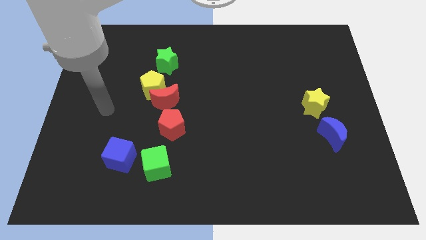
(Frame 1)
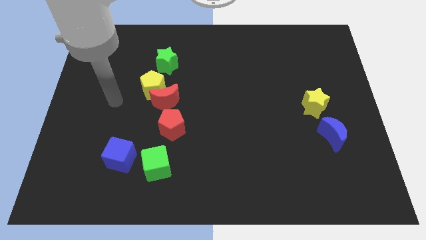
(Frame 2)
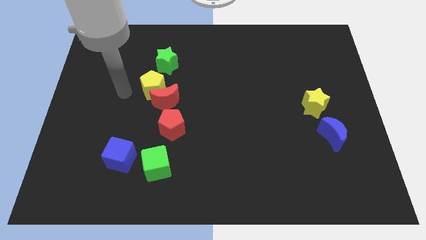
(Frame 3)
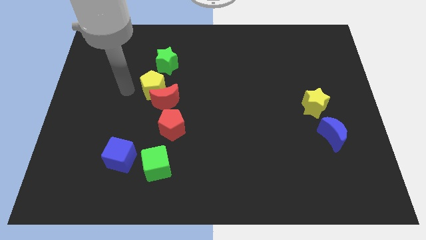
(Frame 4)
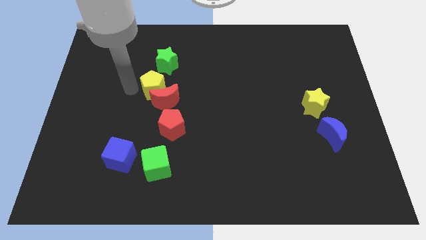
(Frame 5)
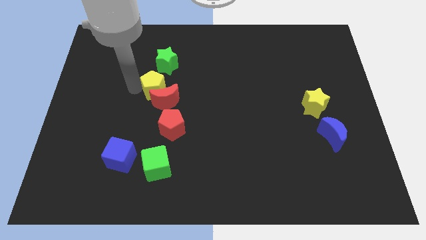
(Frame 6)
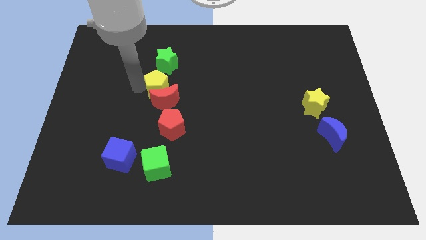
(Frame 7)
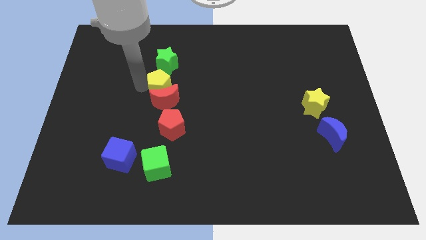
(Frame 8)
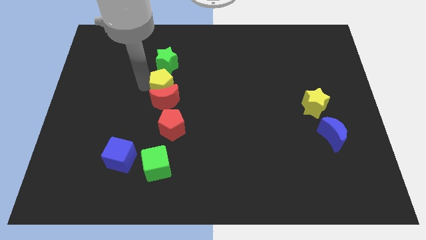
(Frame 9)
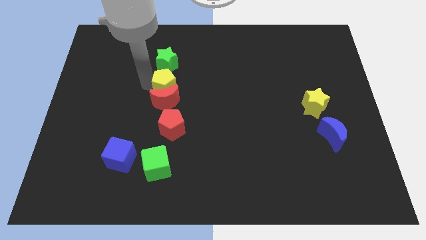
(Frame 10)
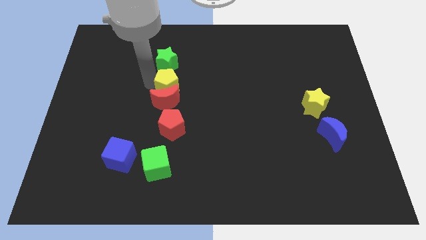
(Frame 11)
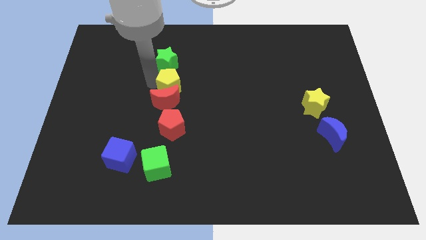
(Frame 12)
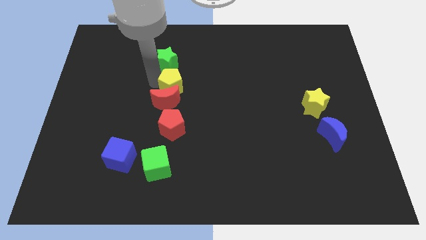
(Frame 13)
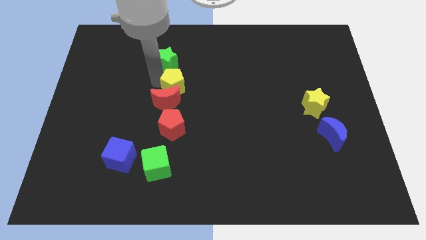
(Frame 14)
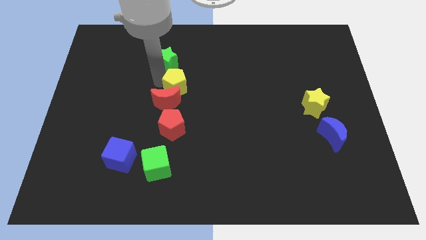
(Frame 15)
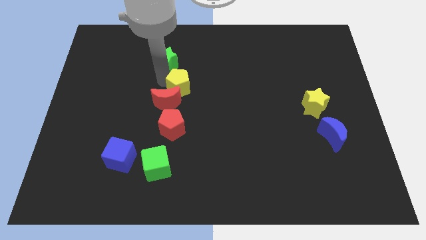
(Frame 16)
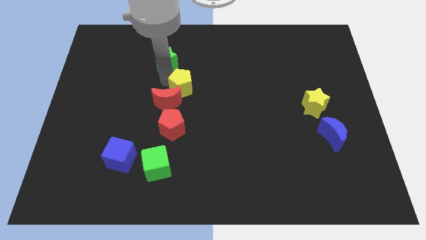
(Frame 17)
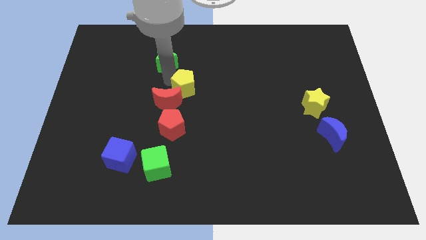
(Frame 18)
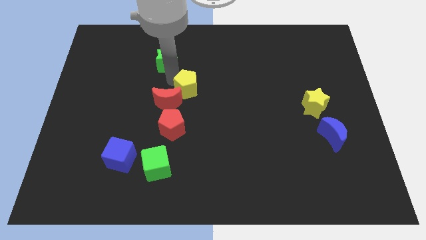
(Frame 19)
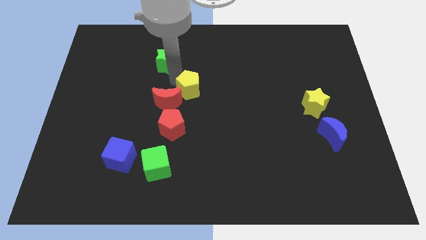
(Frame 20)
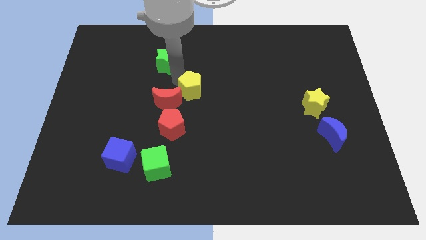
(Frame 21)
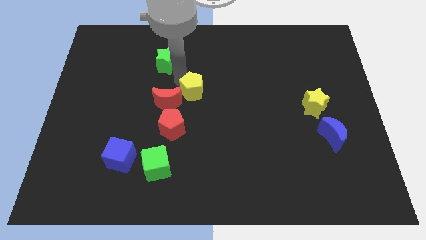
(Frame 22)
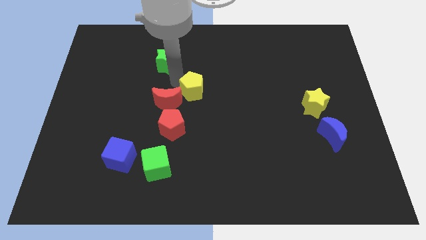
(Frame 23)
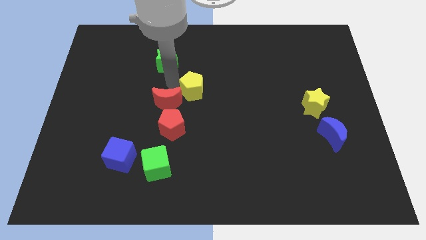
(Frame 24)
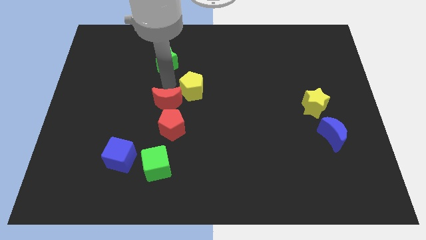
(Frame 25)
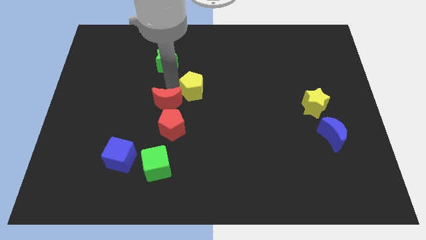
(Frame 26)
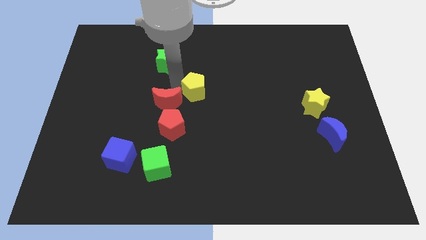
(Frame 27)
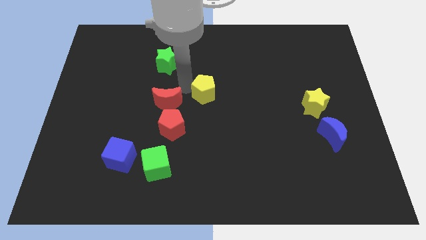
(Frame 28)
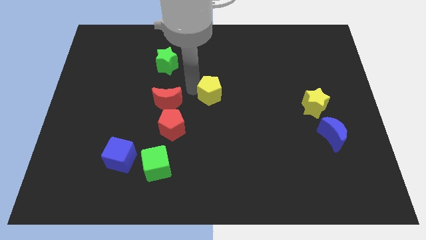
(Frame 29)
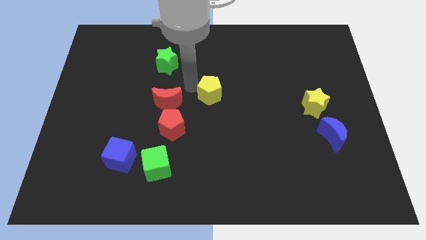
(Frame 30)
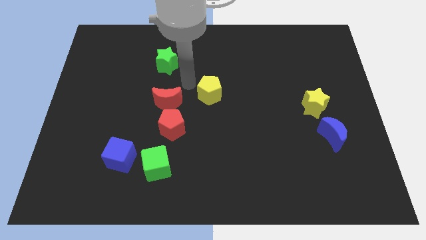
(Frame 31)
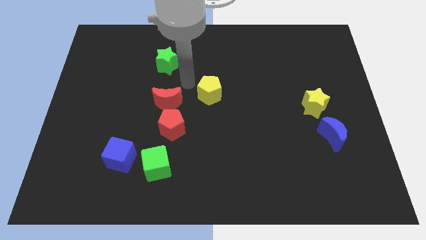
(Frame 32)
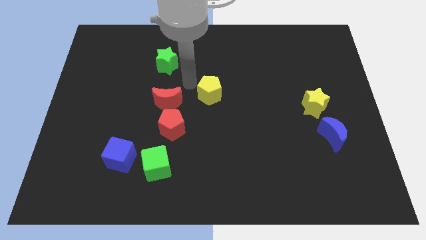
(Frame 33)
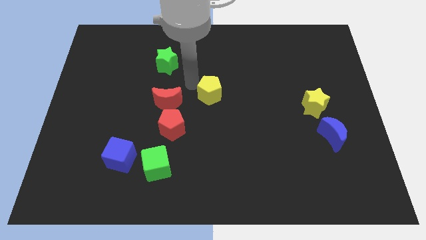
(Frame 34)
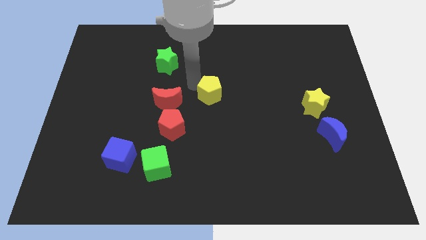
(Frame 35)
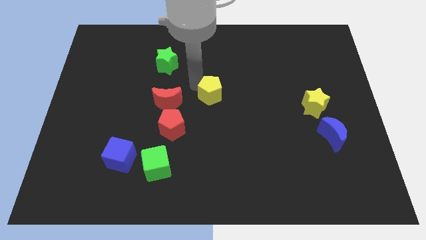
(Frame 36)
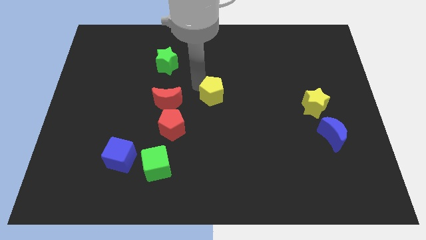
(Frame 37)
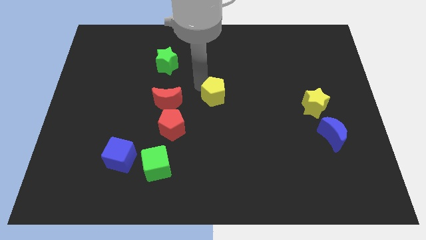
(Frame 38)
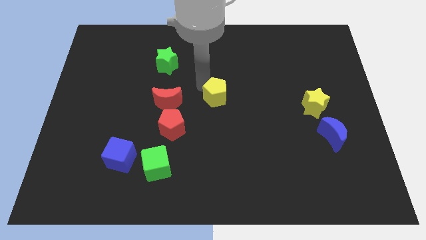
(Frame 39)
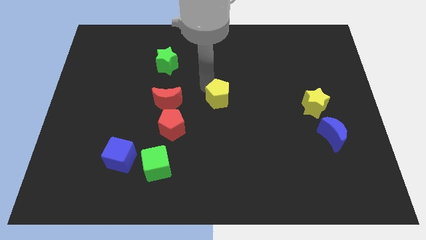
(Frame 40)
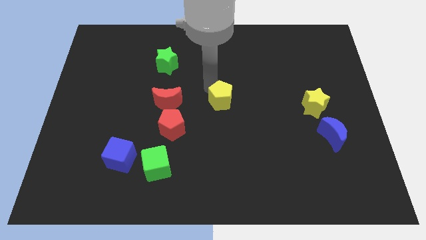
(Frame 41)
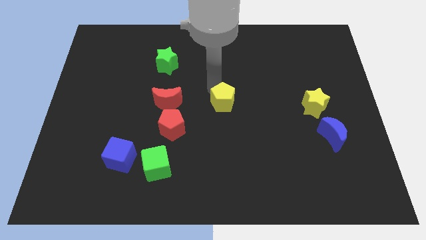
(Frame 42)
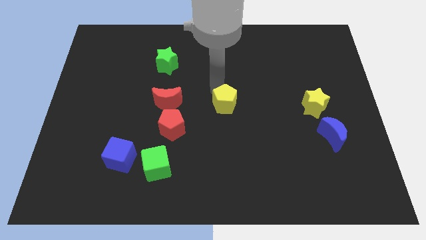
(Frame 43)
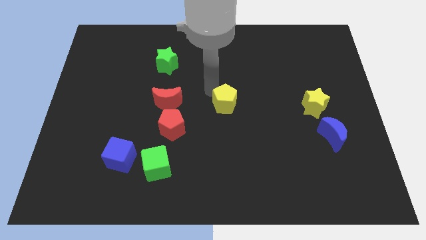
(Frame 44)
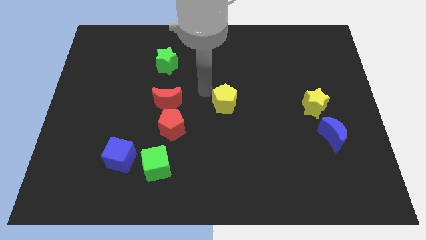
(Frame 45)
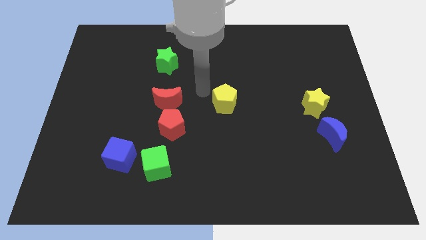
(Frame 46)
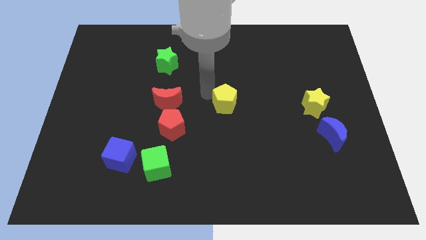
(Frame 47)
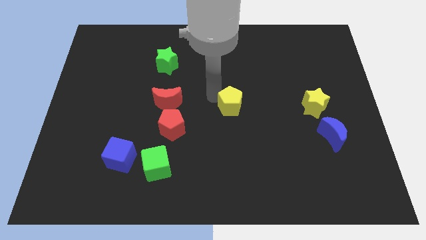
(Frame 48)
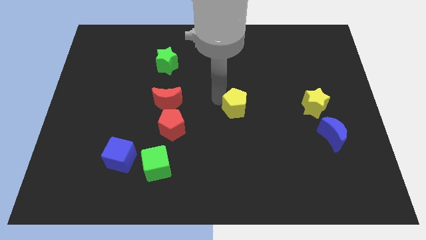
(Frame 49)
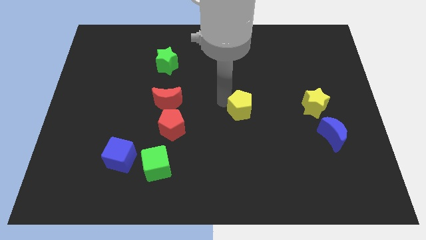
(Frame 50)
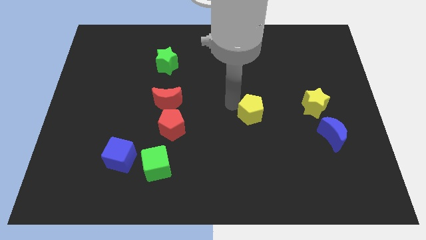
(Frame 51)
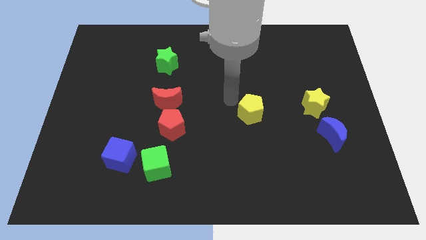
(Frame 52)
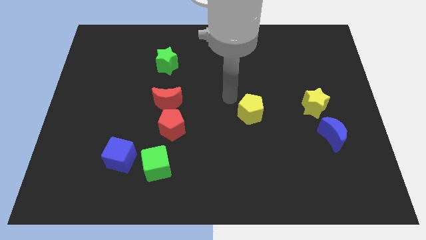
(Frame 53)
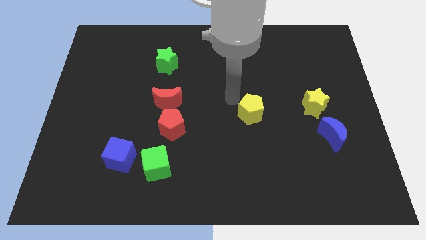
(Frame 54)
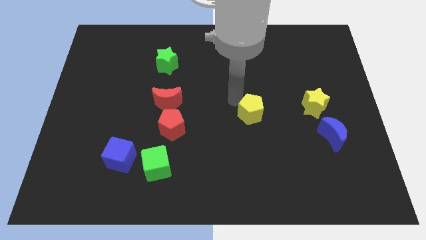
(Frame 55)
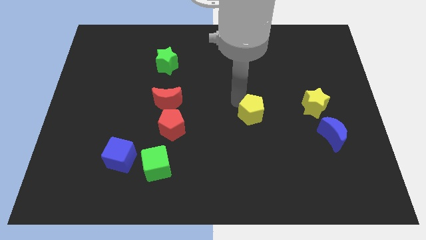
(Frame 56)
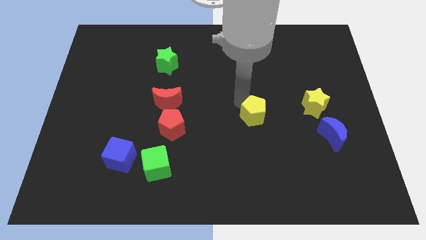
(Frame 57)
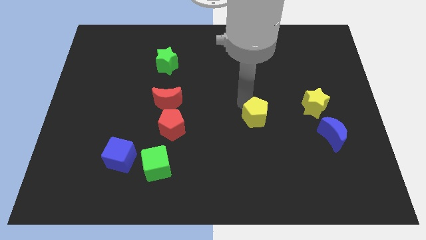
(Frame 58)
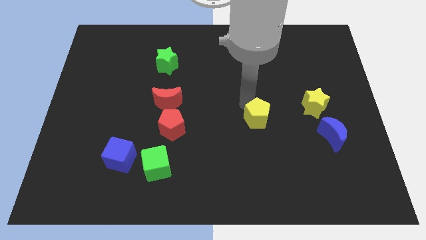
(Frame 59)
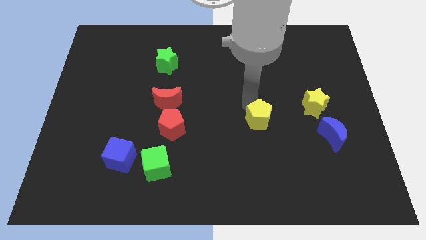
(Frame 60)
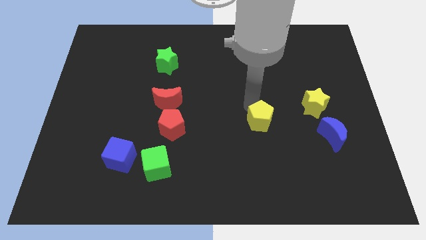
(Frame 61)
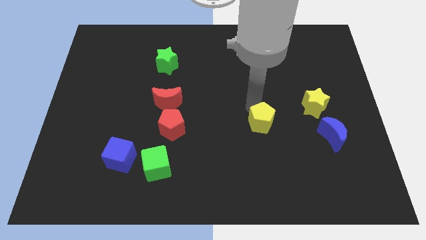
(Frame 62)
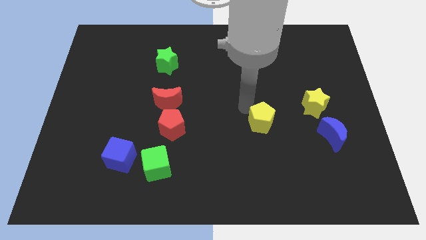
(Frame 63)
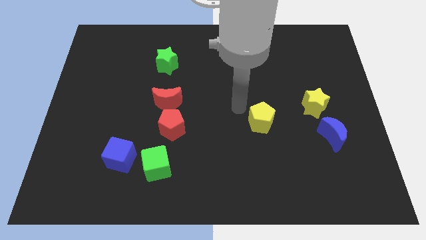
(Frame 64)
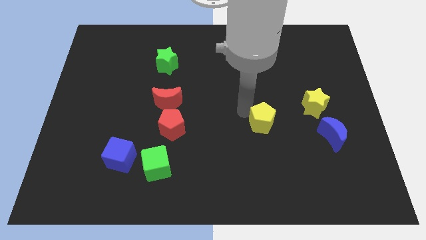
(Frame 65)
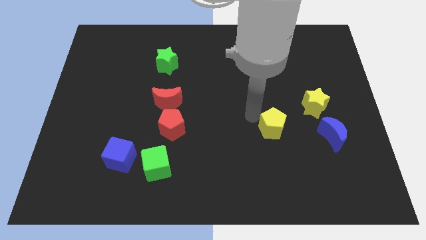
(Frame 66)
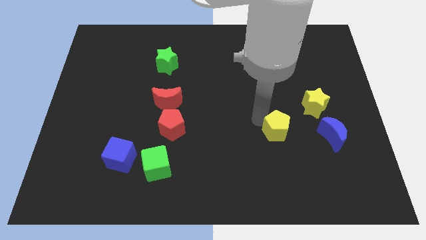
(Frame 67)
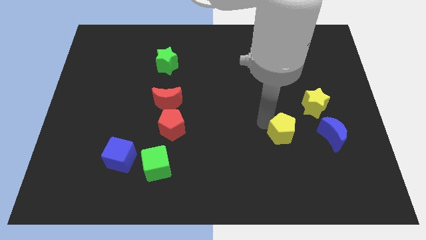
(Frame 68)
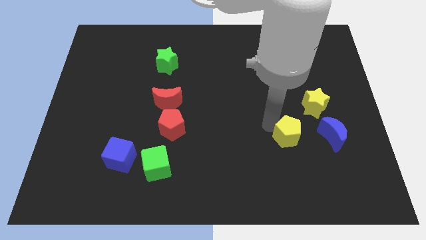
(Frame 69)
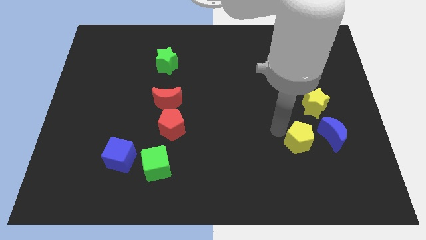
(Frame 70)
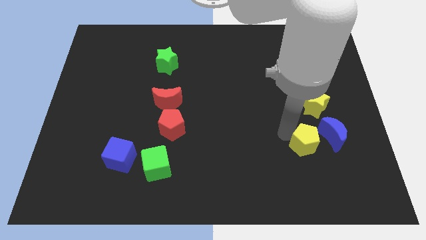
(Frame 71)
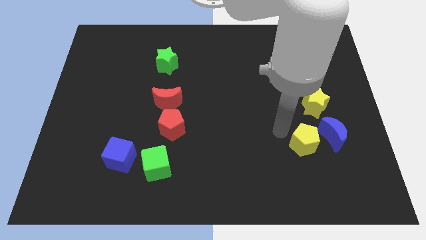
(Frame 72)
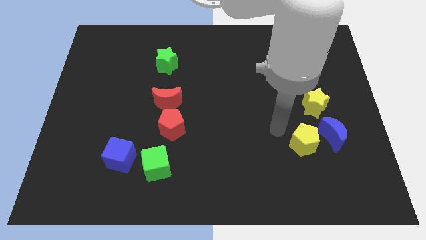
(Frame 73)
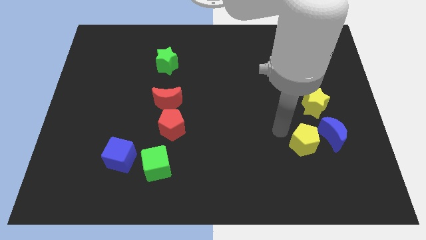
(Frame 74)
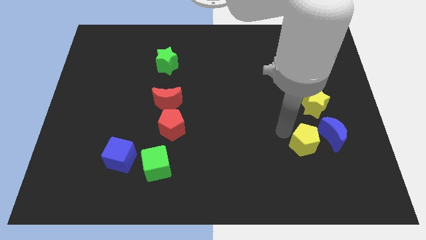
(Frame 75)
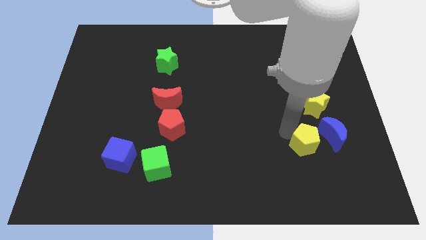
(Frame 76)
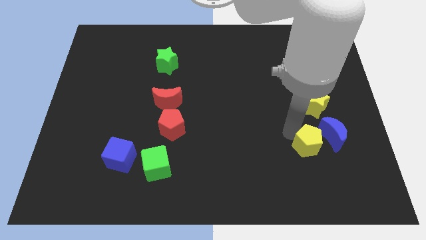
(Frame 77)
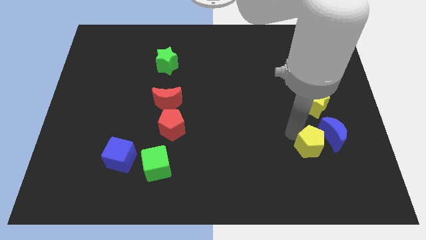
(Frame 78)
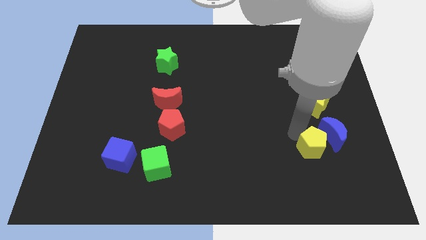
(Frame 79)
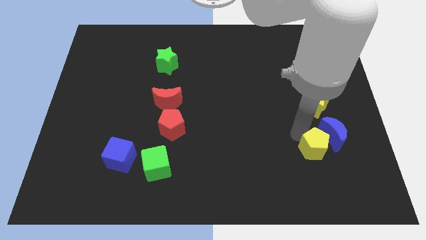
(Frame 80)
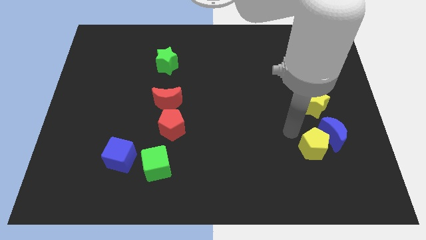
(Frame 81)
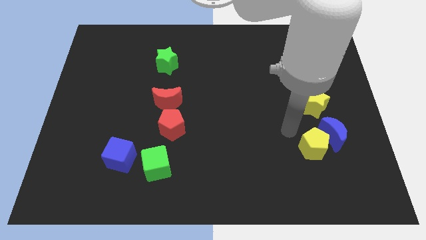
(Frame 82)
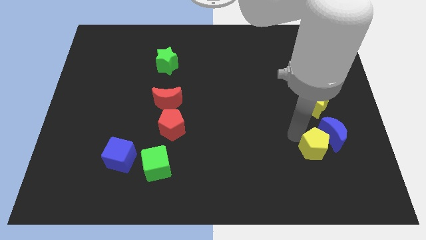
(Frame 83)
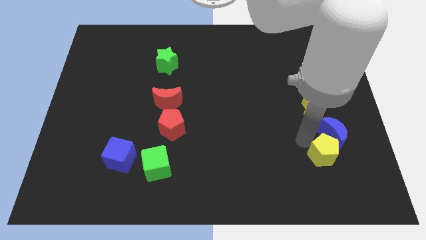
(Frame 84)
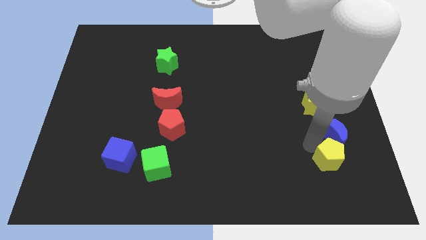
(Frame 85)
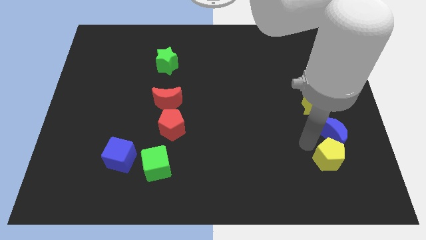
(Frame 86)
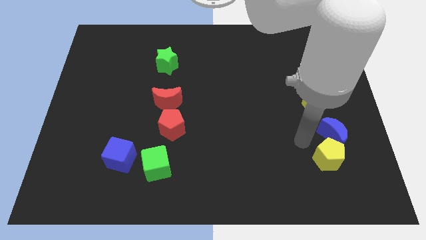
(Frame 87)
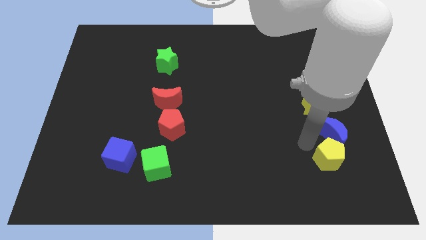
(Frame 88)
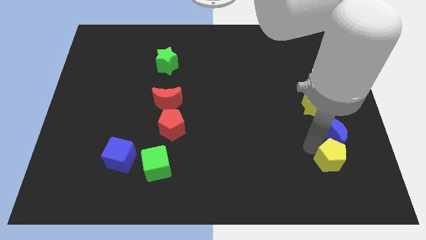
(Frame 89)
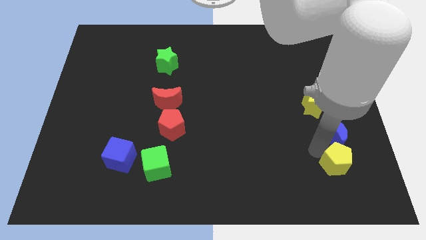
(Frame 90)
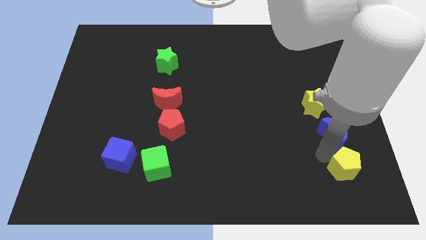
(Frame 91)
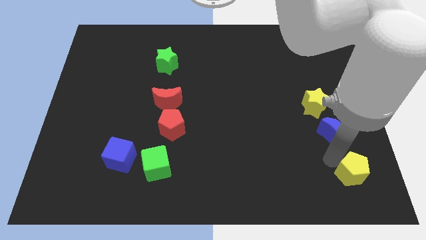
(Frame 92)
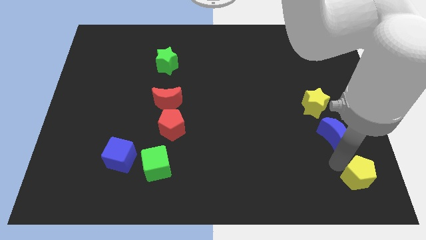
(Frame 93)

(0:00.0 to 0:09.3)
slide the yellow pentagon to the bottom right corner
